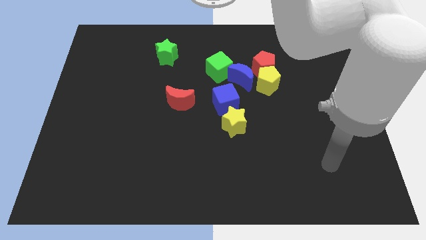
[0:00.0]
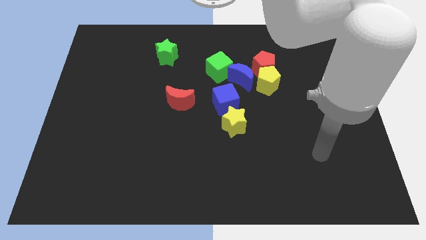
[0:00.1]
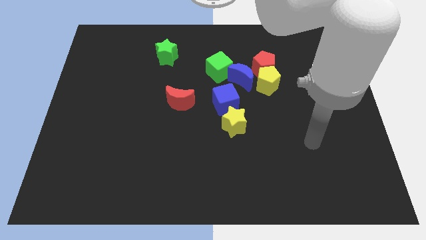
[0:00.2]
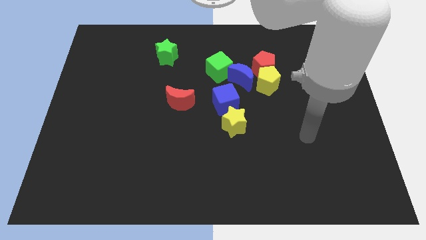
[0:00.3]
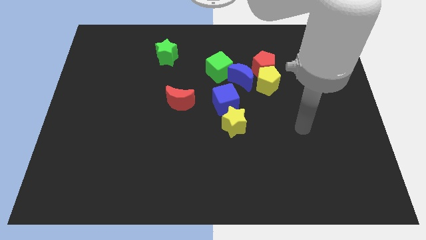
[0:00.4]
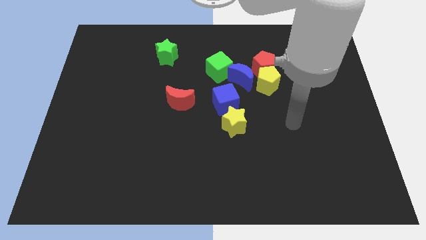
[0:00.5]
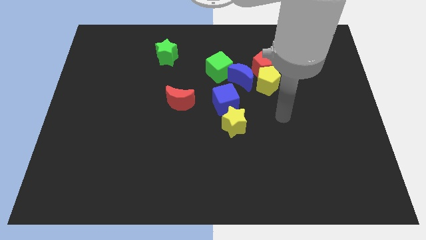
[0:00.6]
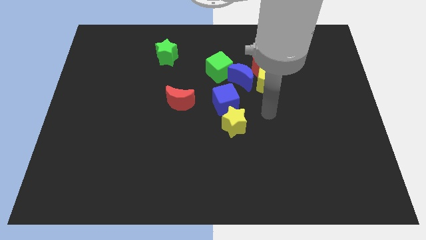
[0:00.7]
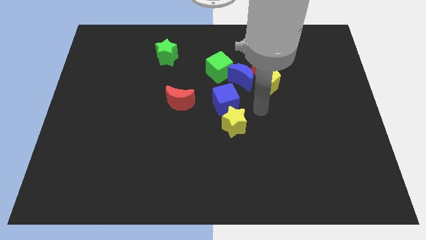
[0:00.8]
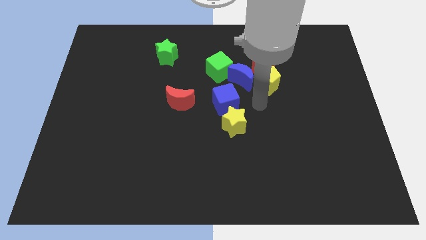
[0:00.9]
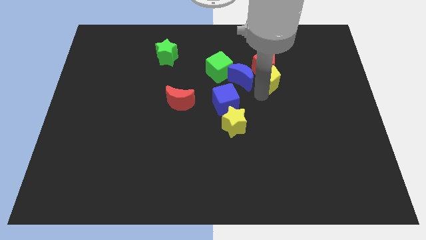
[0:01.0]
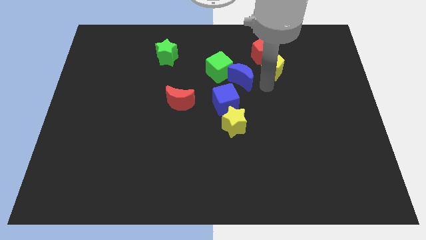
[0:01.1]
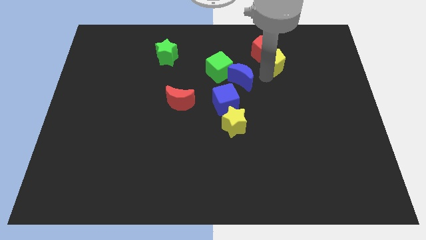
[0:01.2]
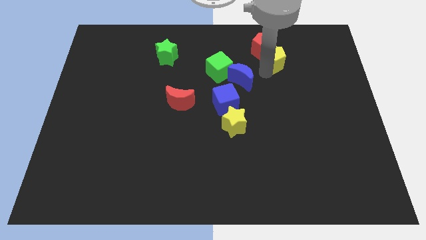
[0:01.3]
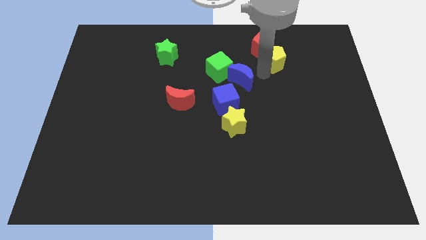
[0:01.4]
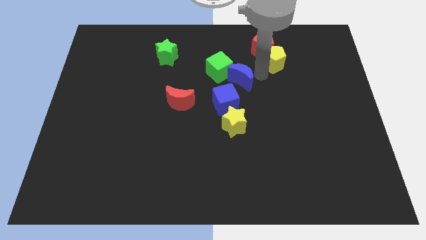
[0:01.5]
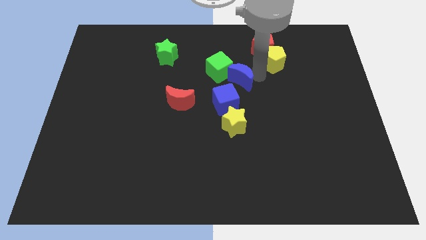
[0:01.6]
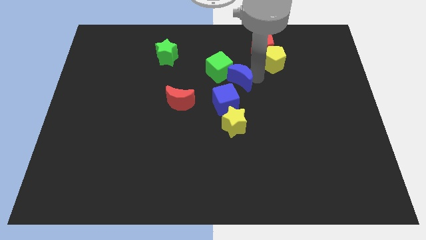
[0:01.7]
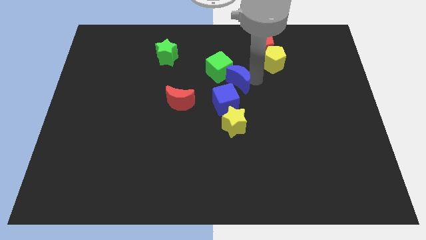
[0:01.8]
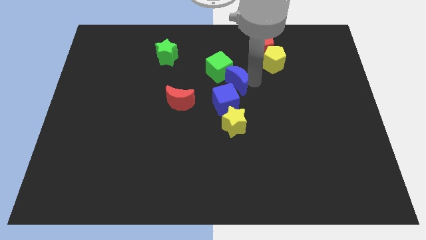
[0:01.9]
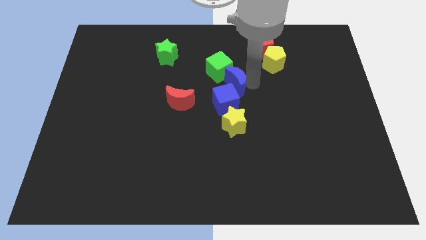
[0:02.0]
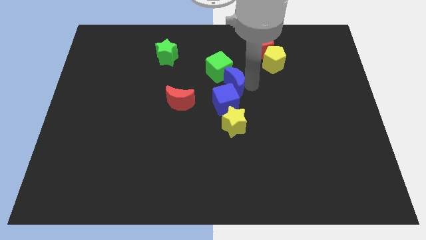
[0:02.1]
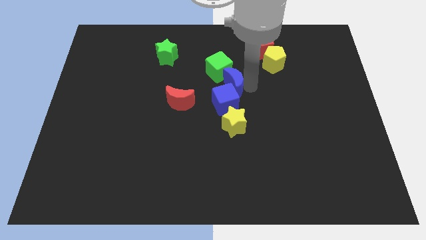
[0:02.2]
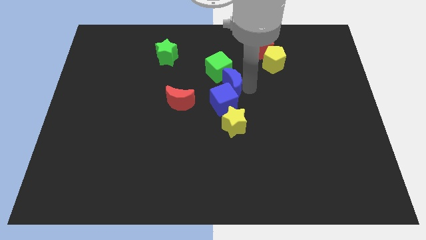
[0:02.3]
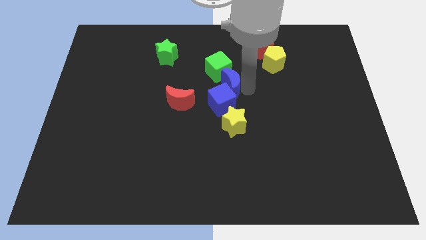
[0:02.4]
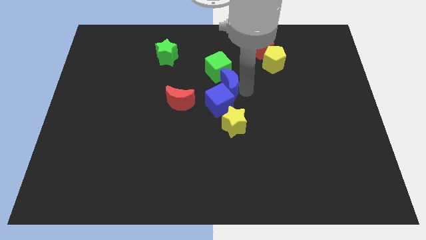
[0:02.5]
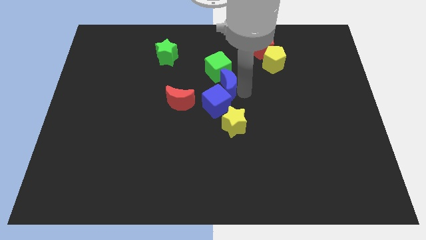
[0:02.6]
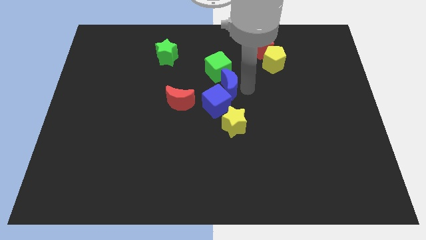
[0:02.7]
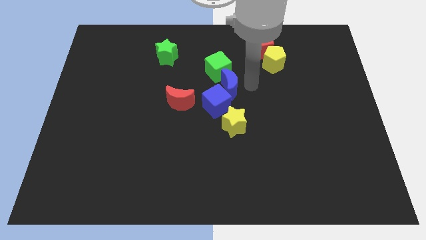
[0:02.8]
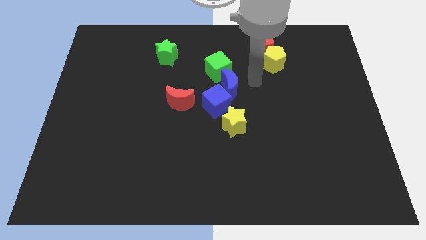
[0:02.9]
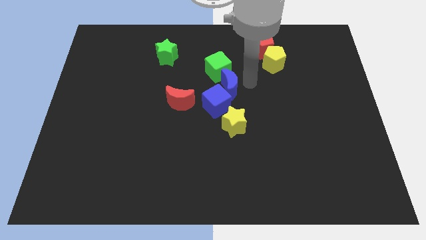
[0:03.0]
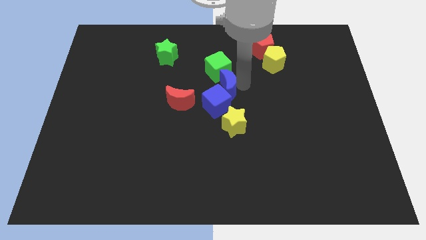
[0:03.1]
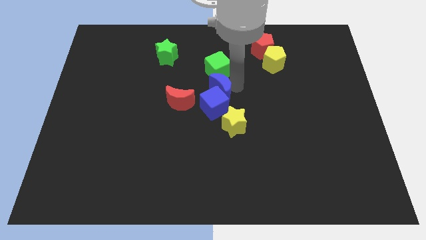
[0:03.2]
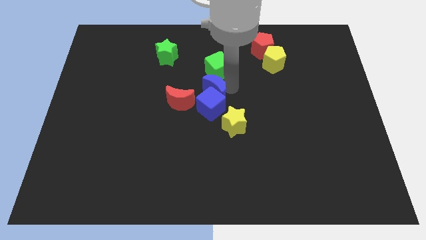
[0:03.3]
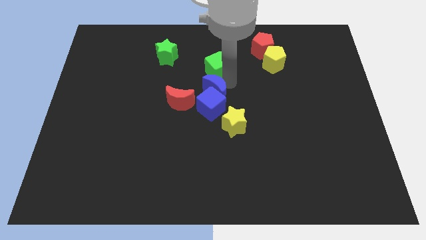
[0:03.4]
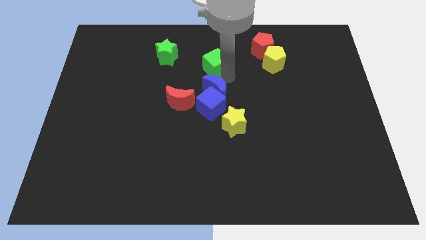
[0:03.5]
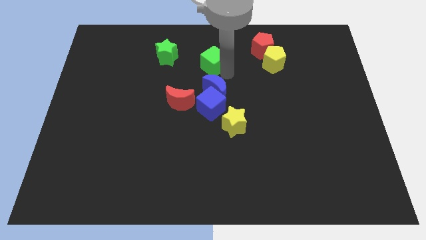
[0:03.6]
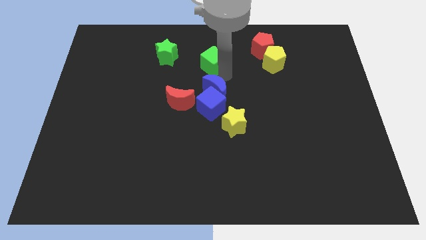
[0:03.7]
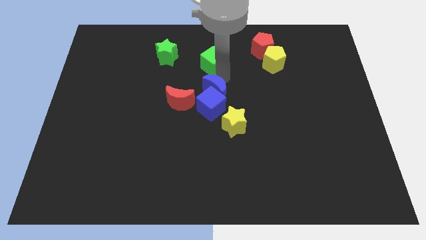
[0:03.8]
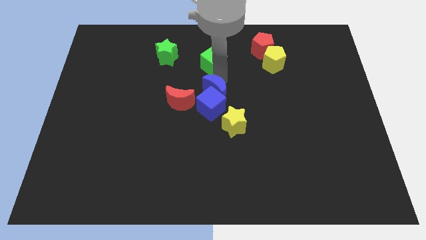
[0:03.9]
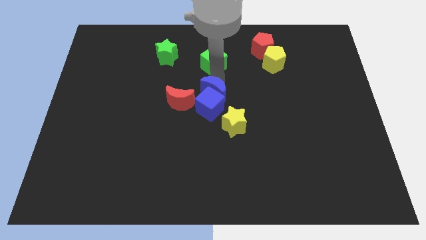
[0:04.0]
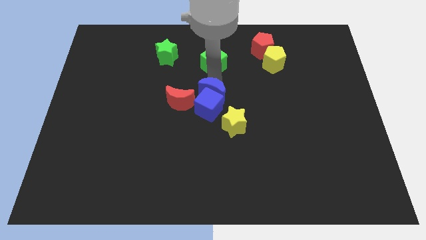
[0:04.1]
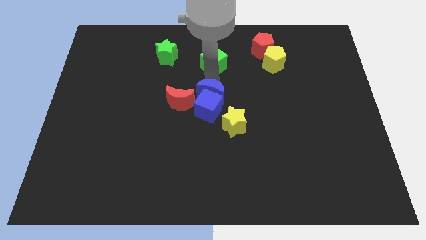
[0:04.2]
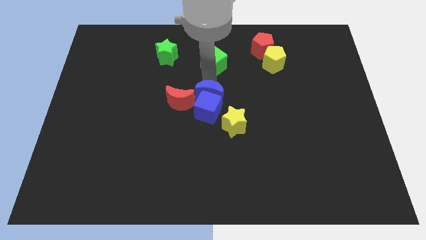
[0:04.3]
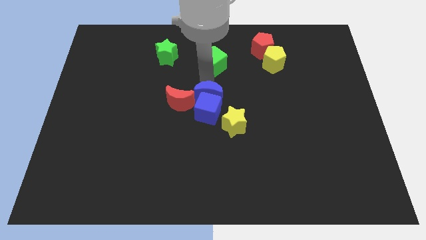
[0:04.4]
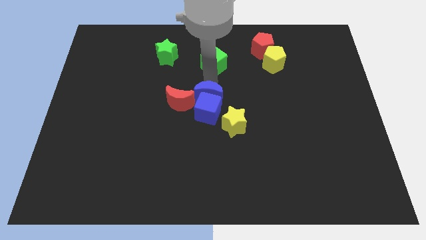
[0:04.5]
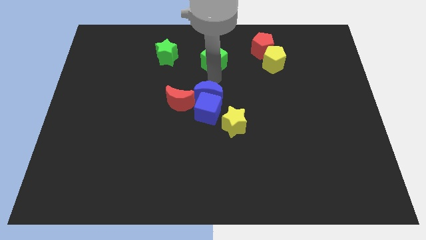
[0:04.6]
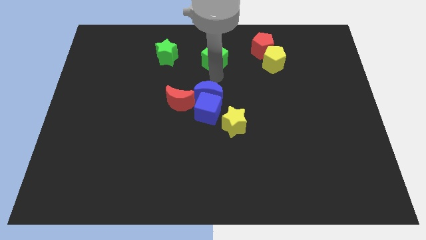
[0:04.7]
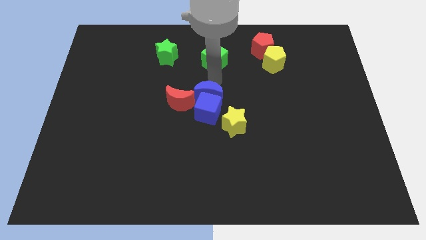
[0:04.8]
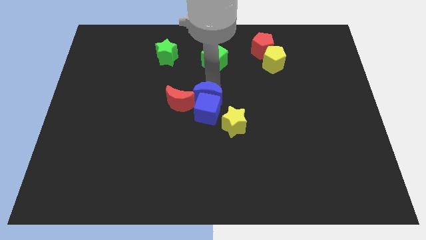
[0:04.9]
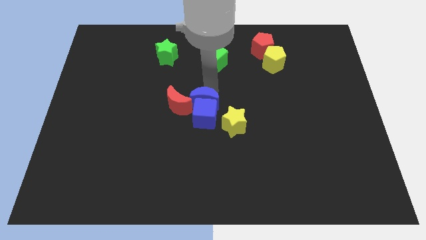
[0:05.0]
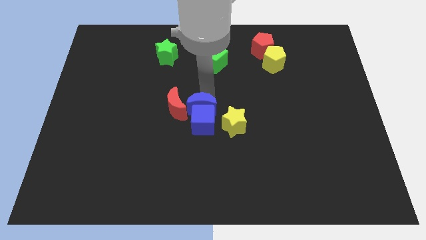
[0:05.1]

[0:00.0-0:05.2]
put the blue moon to the bottom right of the red moon

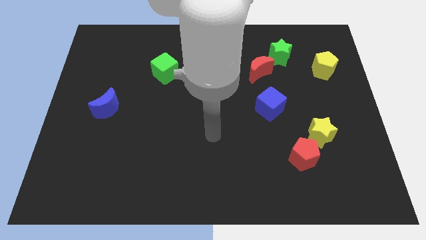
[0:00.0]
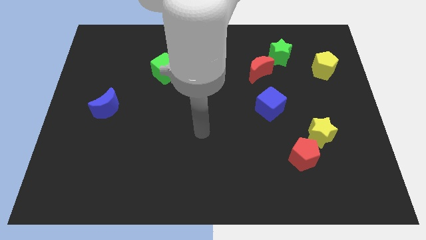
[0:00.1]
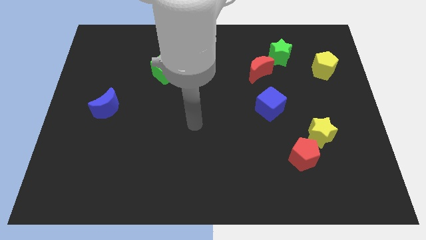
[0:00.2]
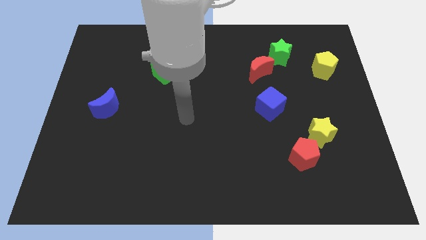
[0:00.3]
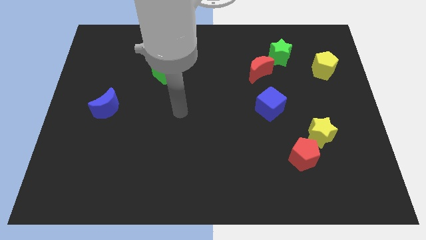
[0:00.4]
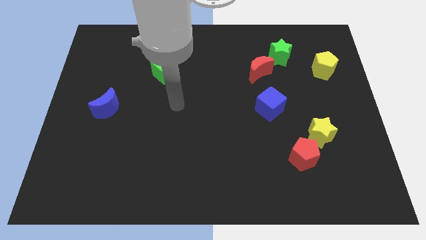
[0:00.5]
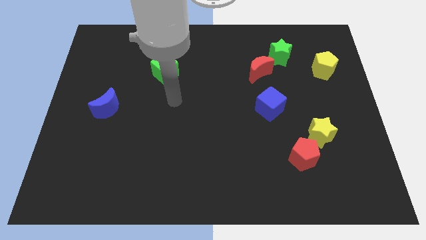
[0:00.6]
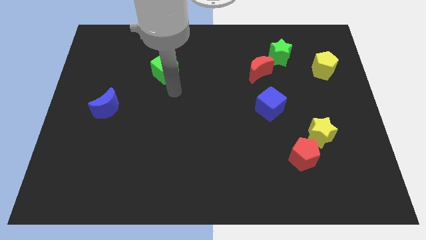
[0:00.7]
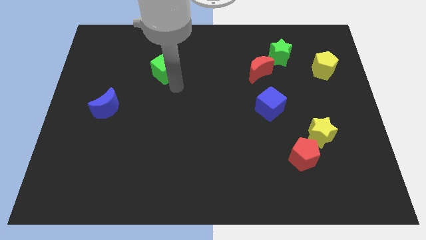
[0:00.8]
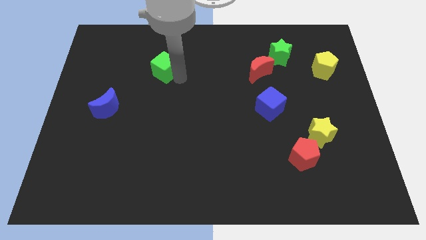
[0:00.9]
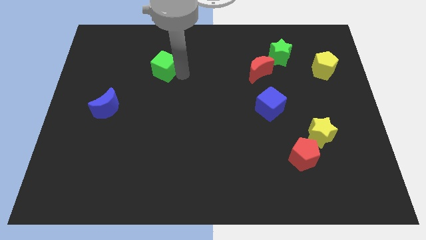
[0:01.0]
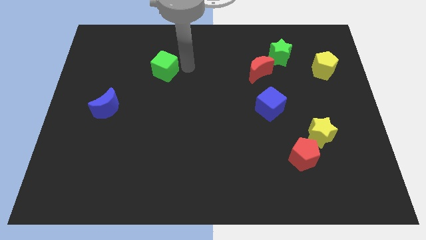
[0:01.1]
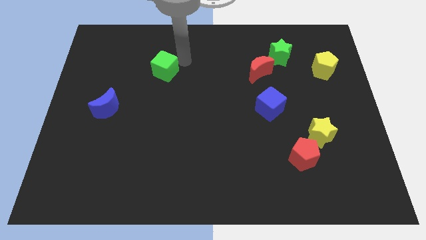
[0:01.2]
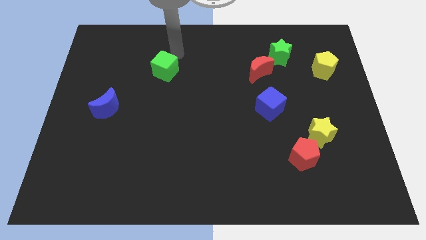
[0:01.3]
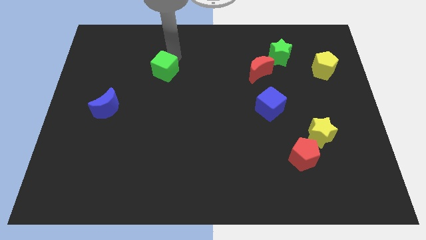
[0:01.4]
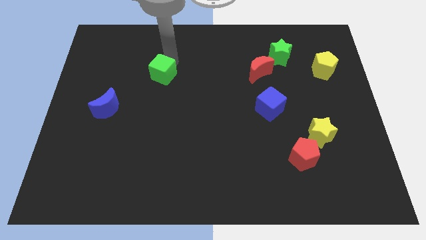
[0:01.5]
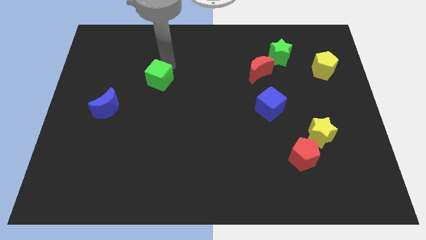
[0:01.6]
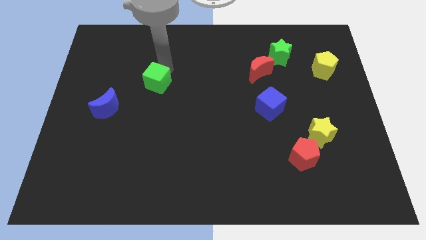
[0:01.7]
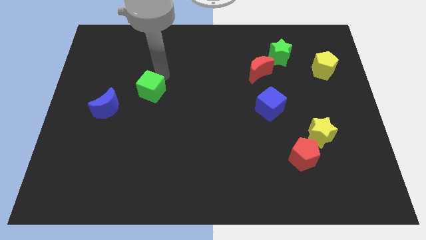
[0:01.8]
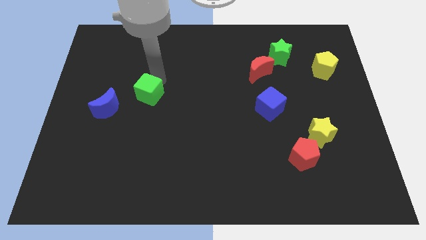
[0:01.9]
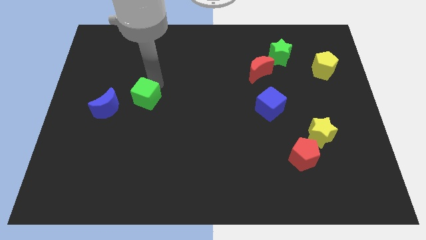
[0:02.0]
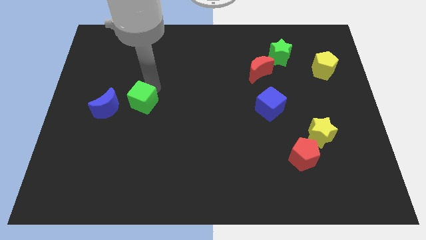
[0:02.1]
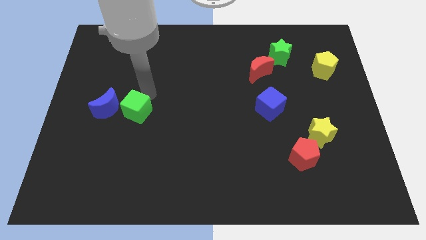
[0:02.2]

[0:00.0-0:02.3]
put the green cube to the bottom right of the blue moon
